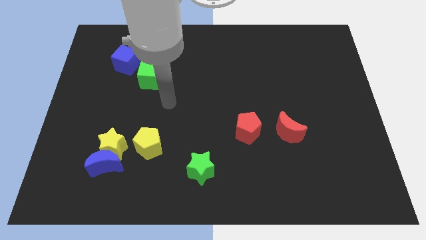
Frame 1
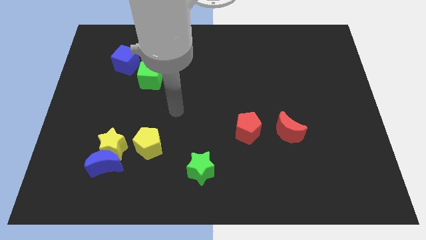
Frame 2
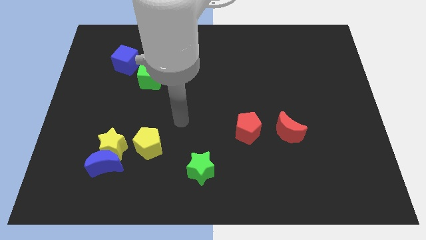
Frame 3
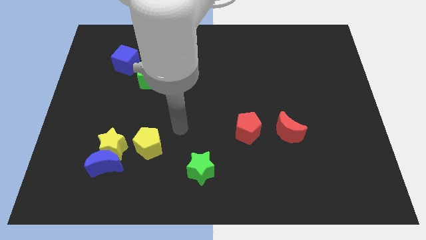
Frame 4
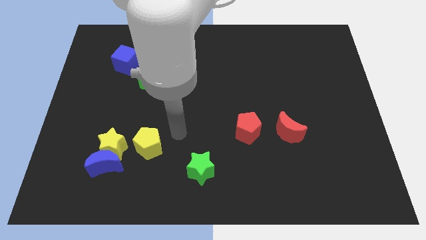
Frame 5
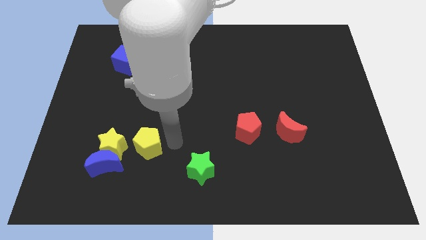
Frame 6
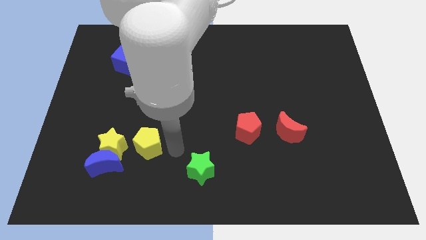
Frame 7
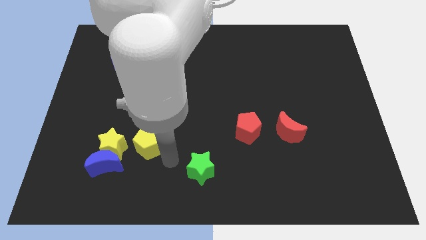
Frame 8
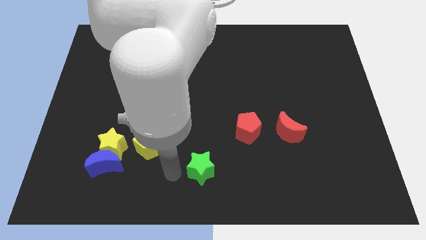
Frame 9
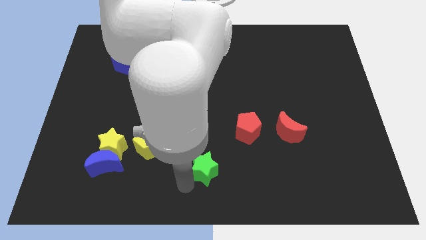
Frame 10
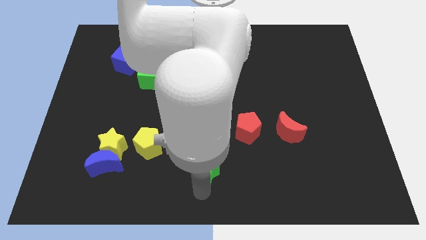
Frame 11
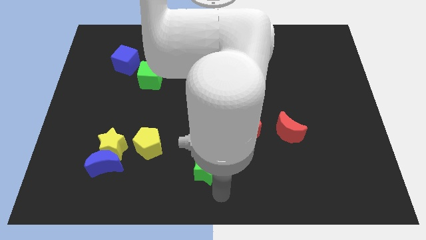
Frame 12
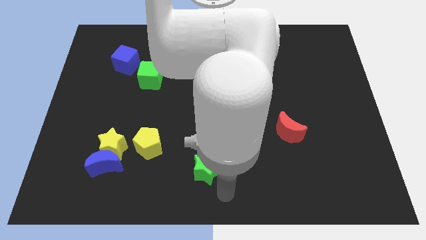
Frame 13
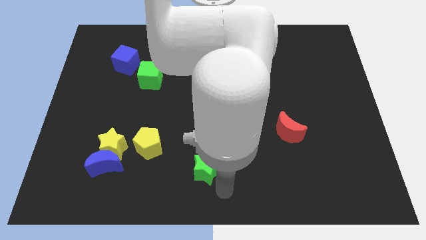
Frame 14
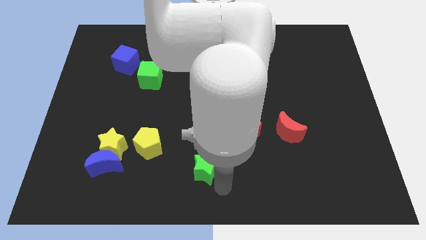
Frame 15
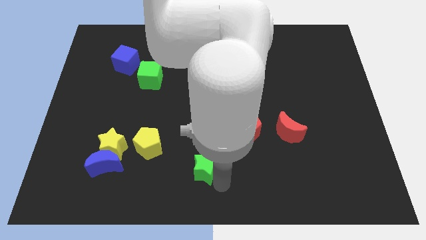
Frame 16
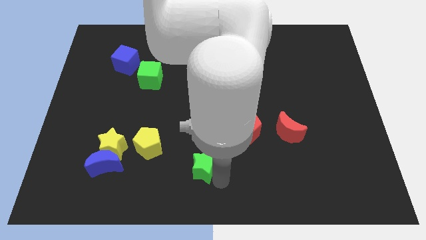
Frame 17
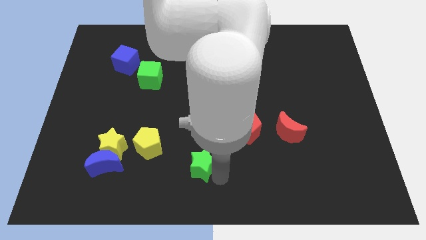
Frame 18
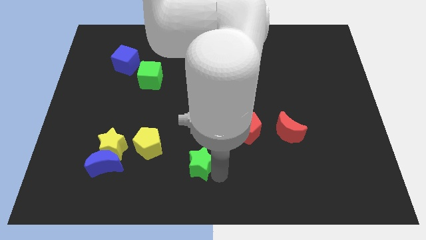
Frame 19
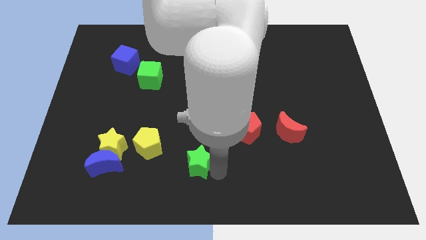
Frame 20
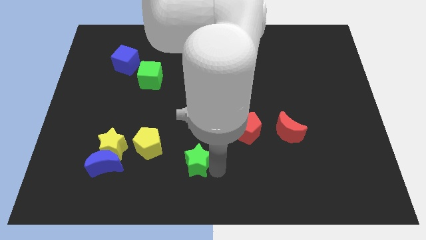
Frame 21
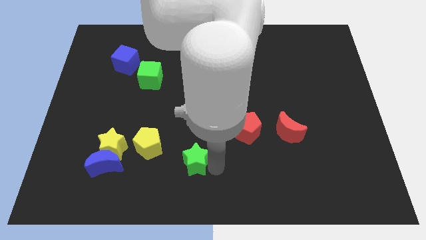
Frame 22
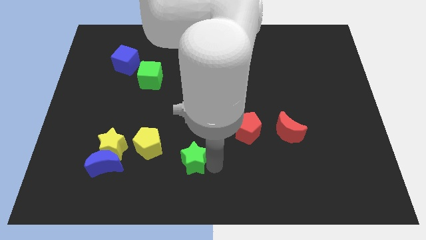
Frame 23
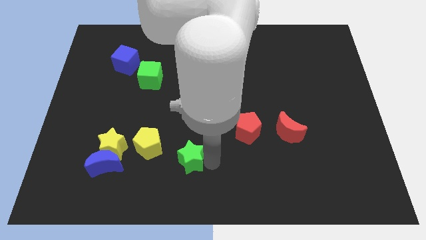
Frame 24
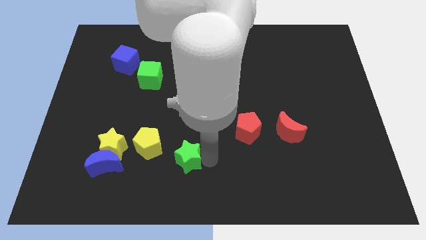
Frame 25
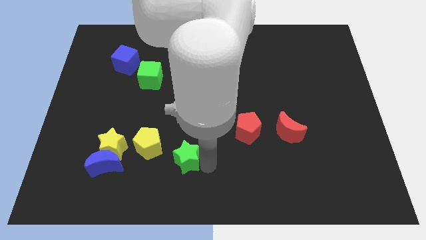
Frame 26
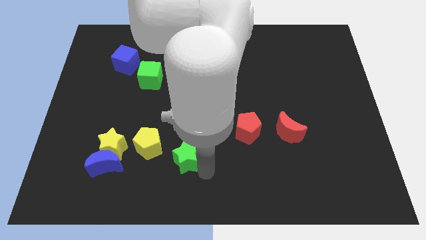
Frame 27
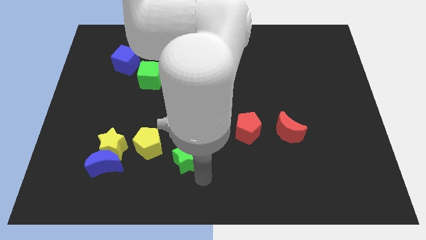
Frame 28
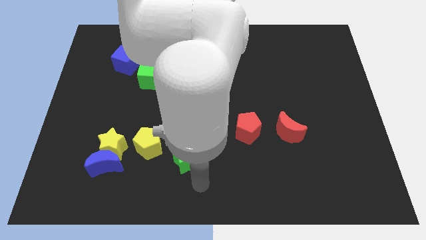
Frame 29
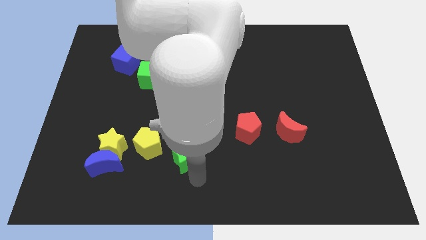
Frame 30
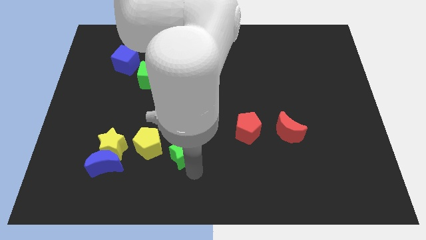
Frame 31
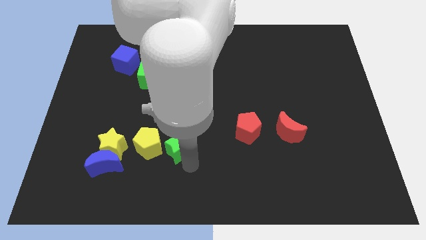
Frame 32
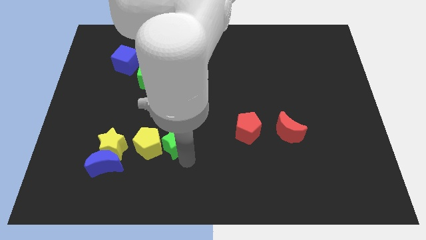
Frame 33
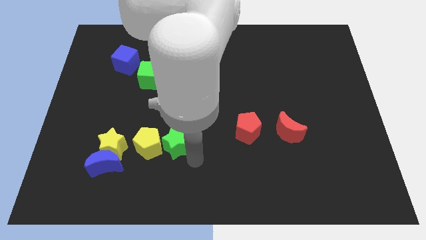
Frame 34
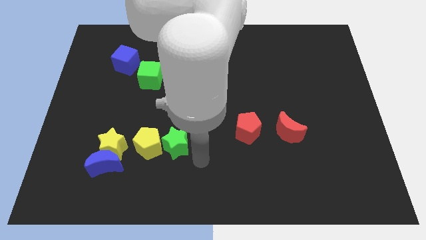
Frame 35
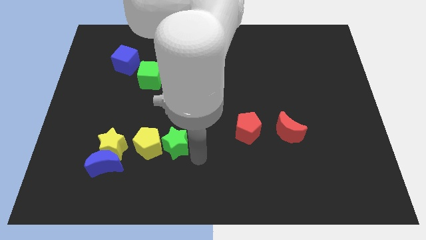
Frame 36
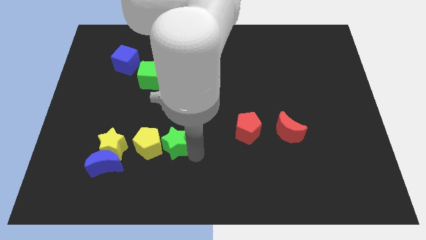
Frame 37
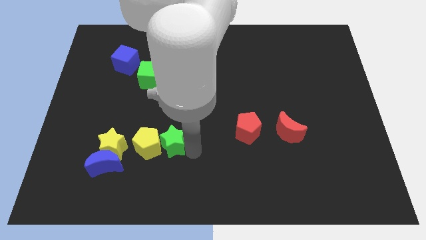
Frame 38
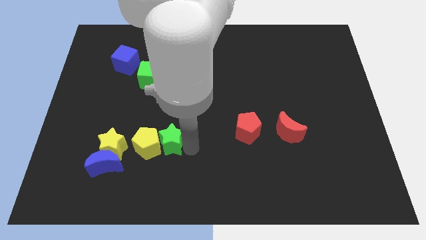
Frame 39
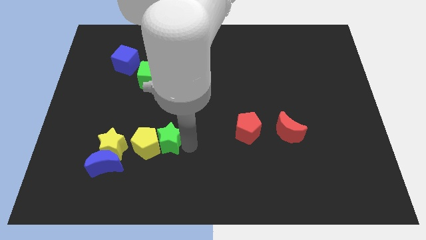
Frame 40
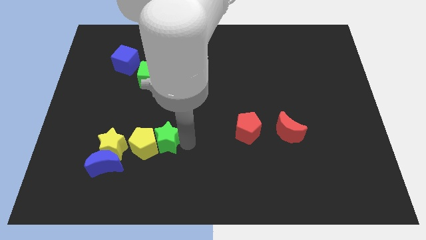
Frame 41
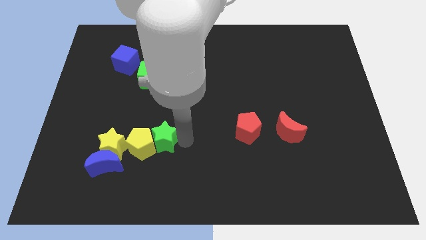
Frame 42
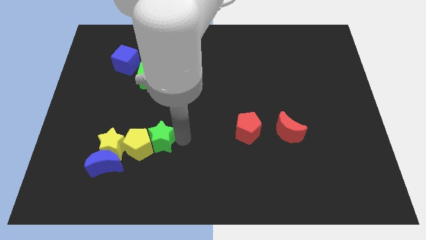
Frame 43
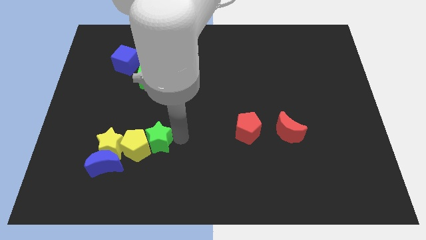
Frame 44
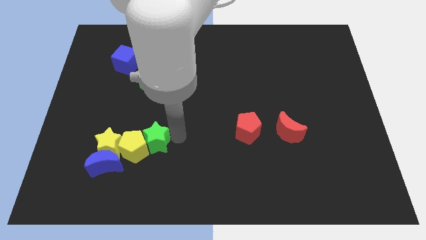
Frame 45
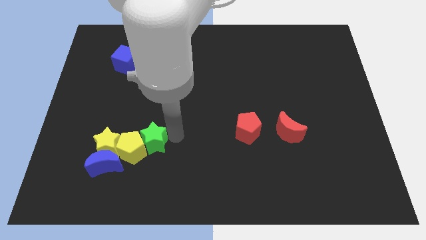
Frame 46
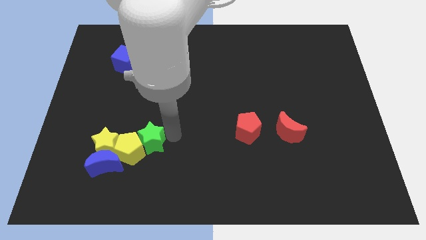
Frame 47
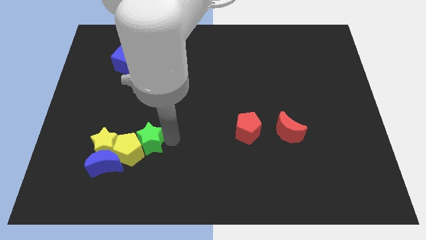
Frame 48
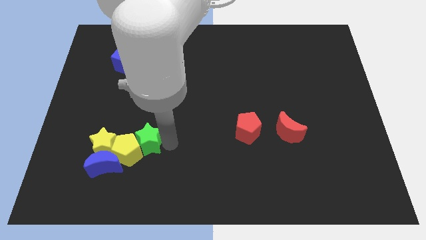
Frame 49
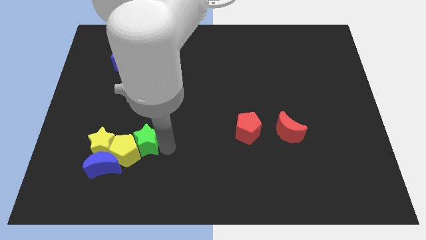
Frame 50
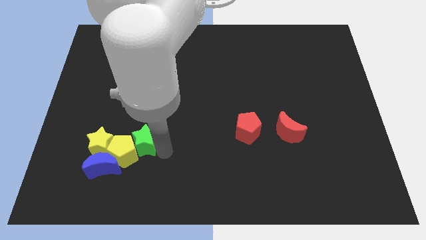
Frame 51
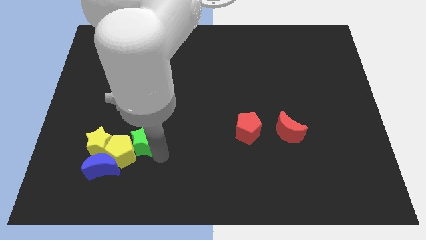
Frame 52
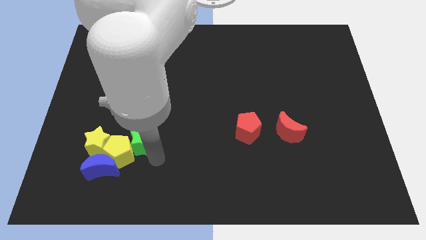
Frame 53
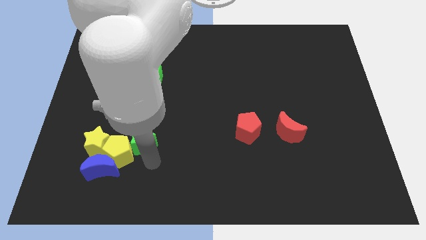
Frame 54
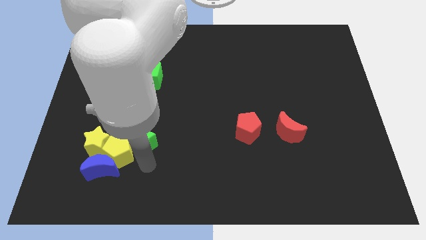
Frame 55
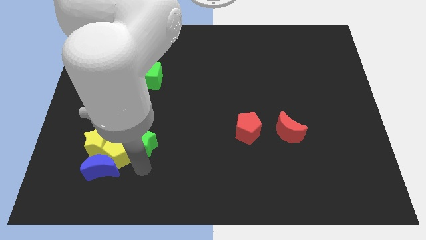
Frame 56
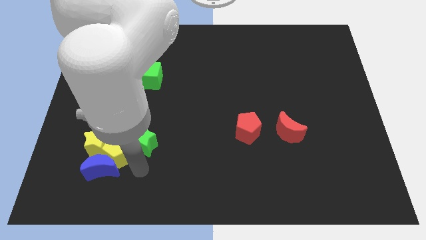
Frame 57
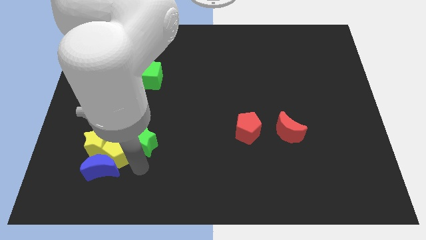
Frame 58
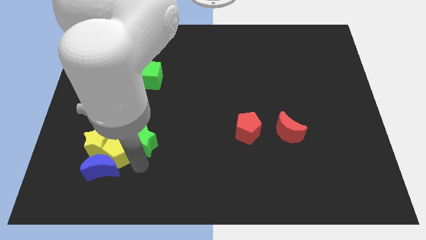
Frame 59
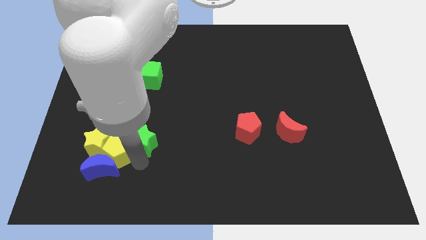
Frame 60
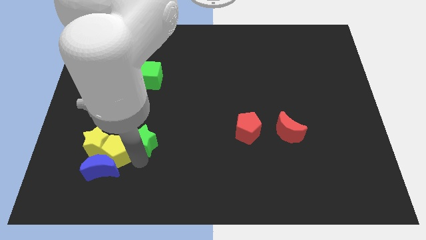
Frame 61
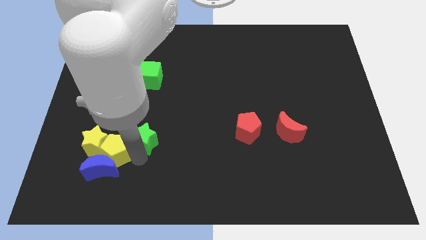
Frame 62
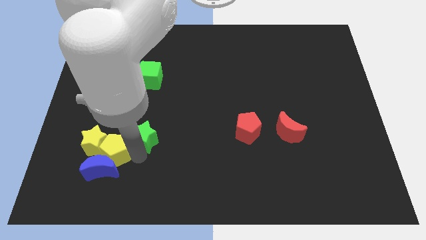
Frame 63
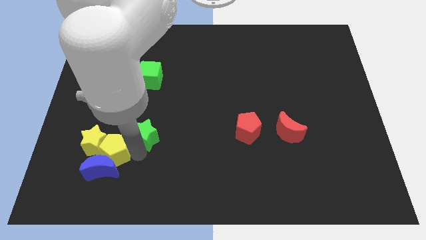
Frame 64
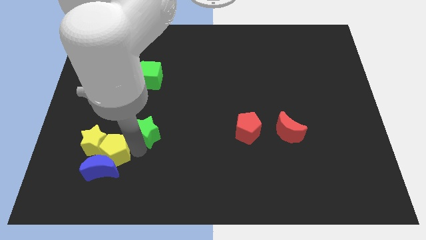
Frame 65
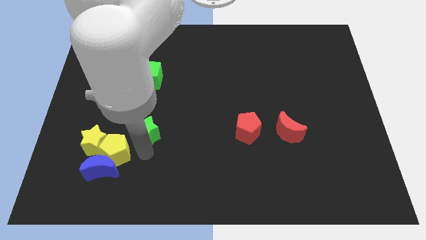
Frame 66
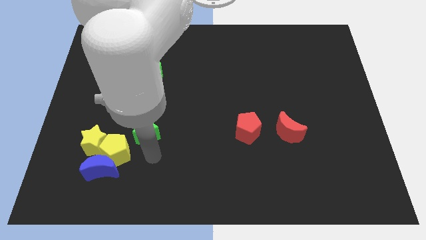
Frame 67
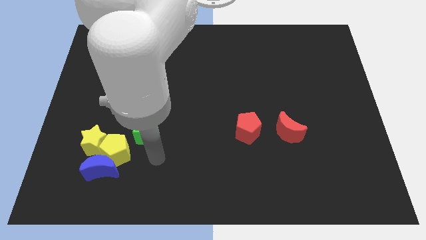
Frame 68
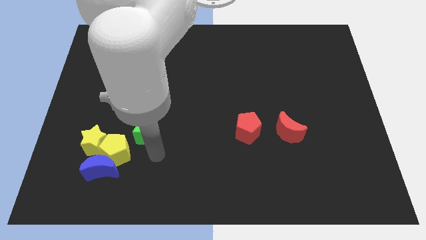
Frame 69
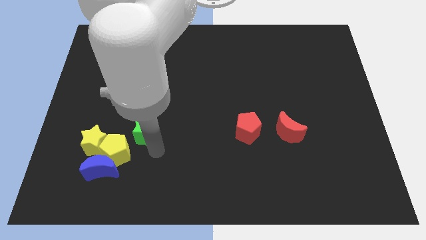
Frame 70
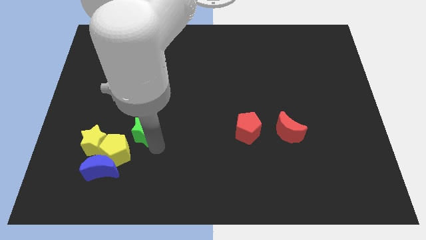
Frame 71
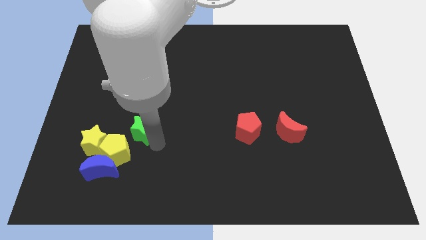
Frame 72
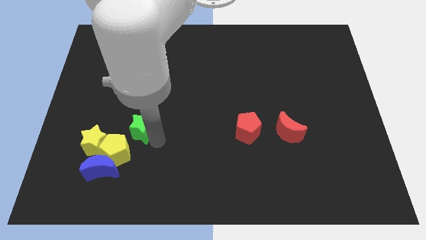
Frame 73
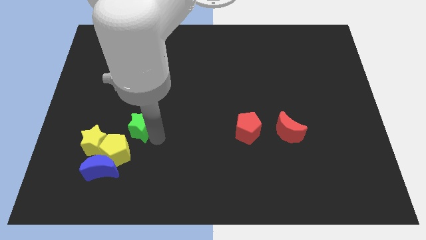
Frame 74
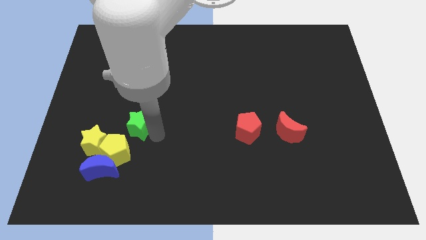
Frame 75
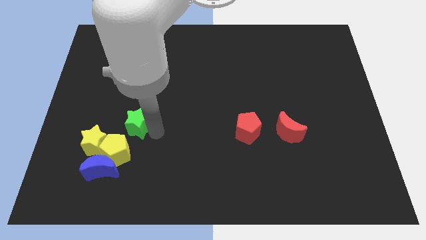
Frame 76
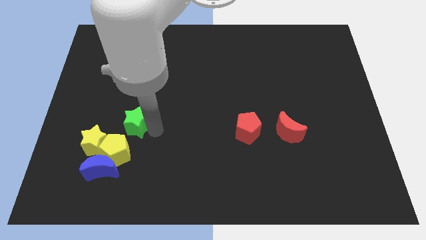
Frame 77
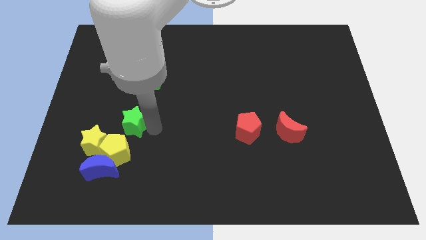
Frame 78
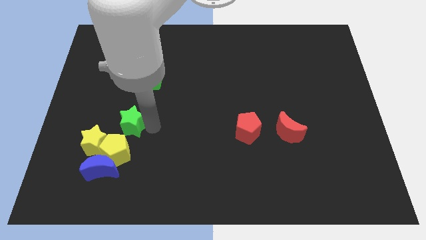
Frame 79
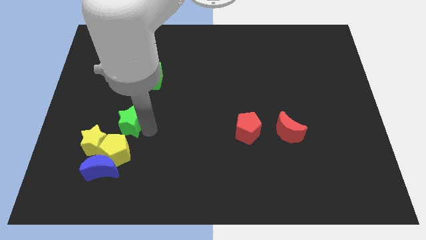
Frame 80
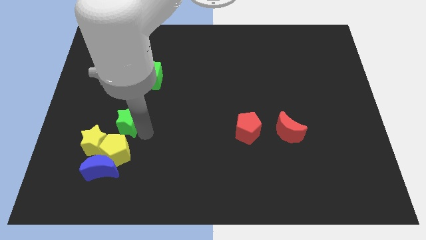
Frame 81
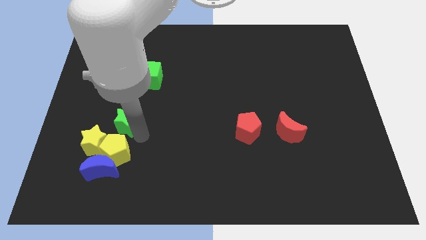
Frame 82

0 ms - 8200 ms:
slide the green star up and then to the left

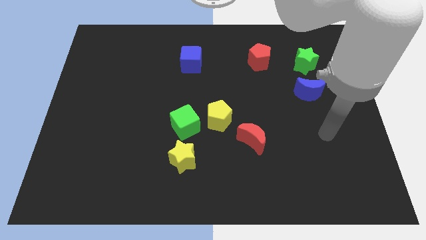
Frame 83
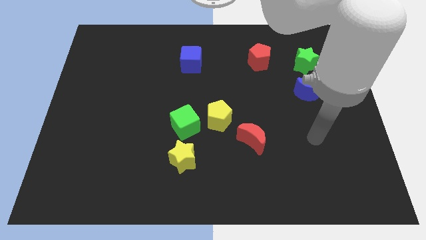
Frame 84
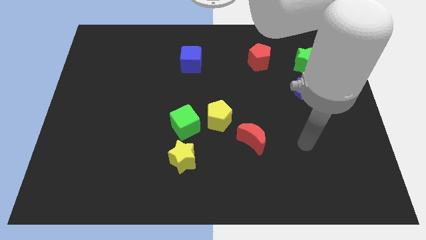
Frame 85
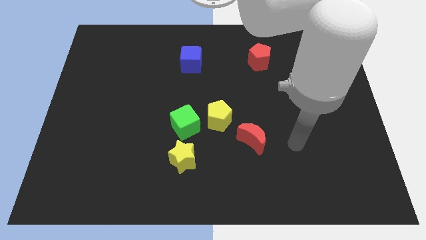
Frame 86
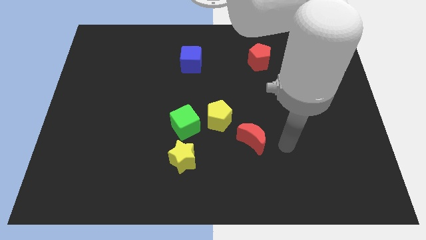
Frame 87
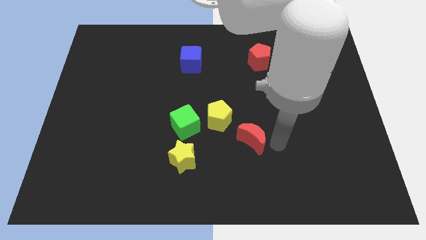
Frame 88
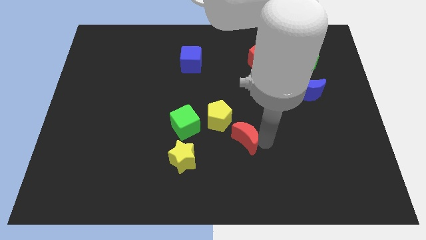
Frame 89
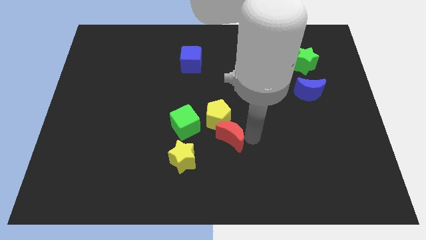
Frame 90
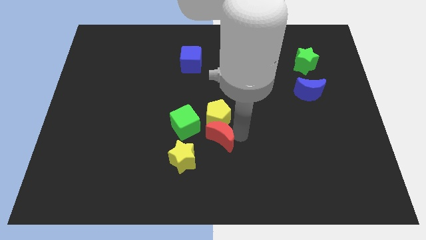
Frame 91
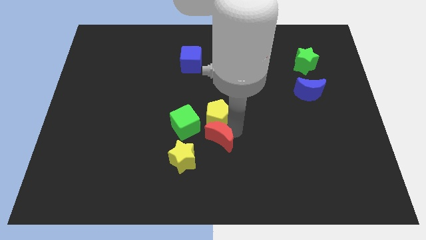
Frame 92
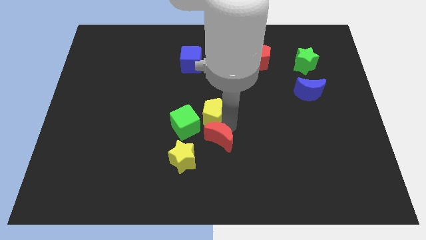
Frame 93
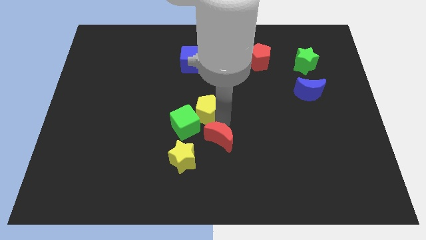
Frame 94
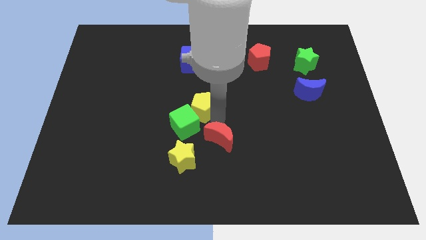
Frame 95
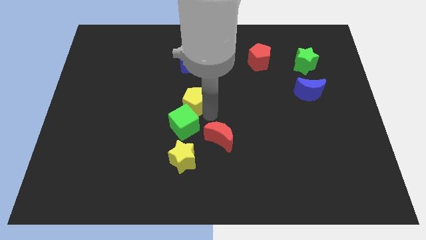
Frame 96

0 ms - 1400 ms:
slide the yellow pentagon up and to the left diagonally a little bit
